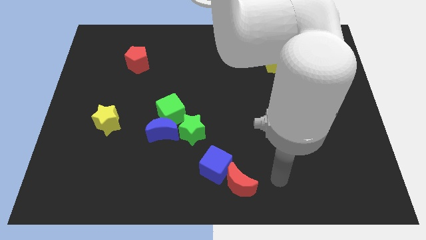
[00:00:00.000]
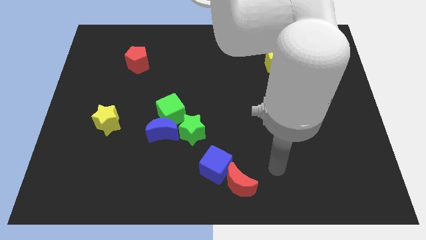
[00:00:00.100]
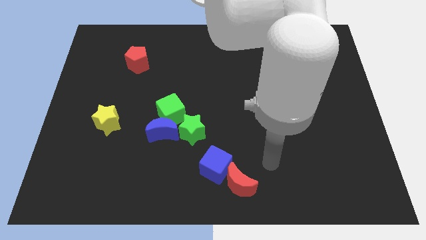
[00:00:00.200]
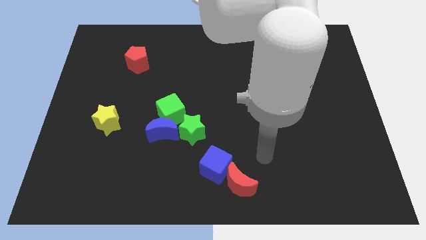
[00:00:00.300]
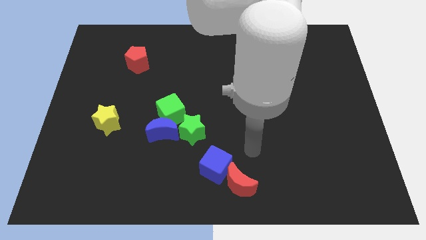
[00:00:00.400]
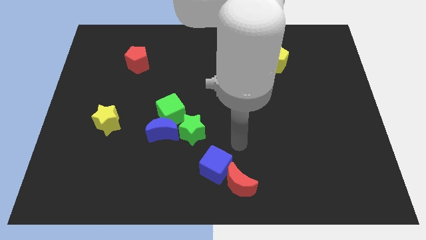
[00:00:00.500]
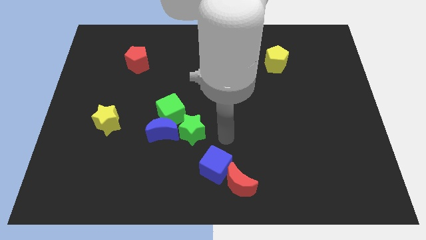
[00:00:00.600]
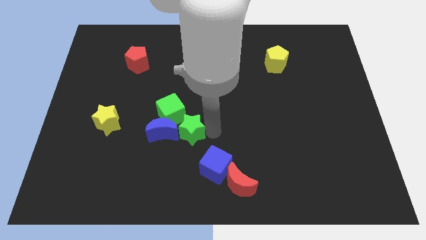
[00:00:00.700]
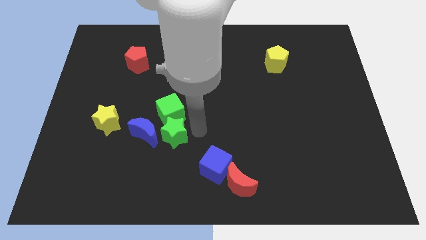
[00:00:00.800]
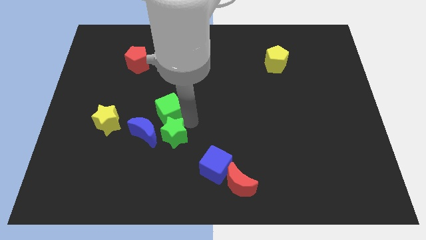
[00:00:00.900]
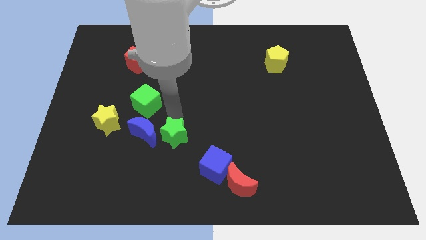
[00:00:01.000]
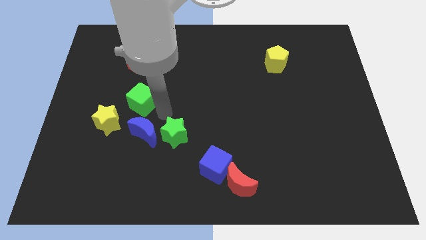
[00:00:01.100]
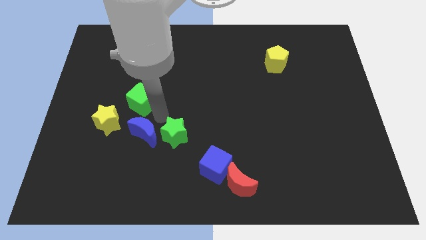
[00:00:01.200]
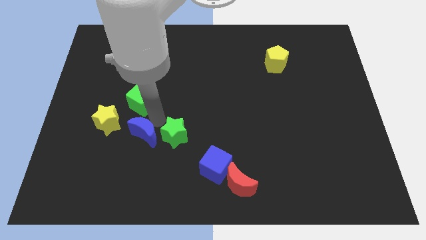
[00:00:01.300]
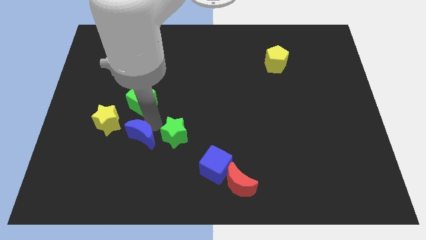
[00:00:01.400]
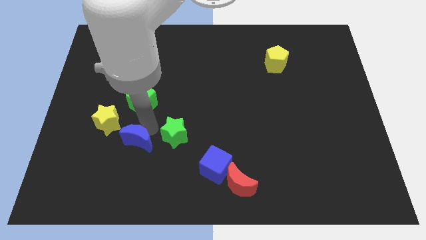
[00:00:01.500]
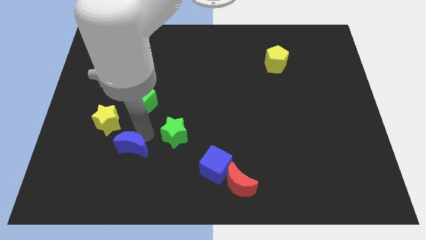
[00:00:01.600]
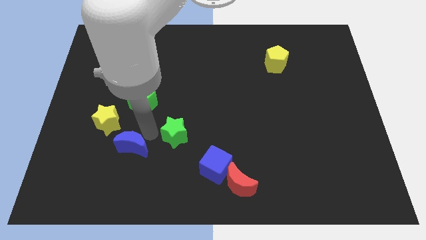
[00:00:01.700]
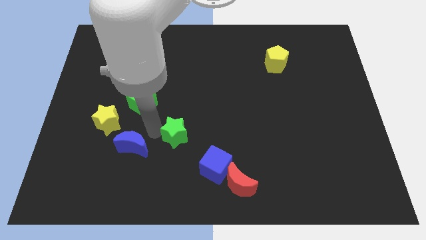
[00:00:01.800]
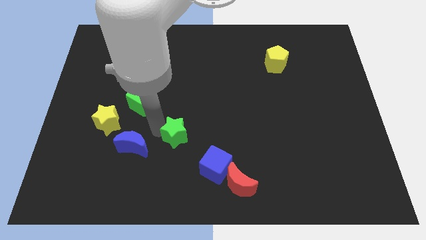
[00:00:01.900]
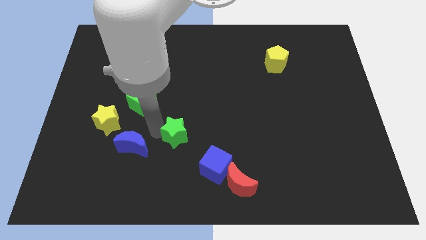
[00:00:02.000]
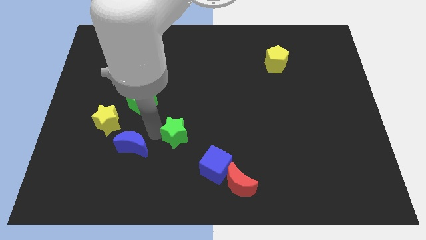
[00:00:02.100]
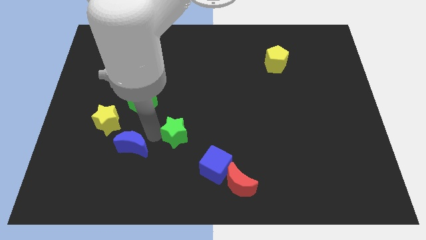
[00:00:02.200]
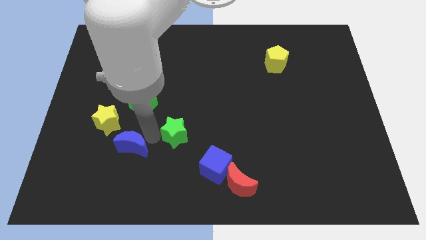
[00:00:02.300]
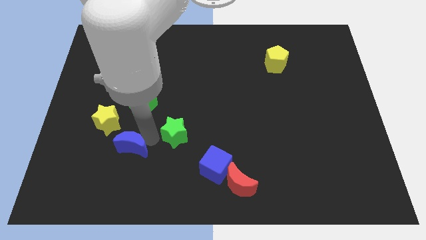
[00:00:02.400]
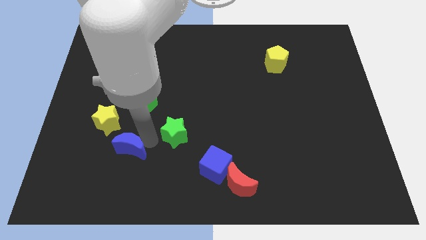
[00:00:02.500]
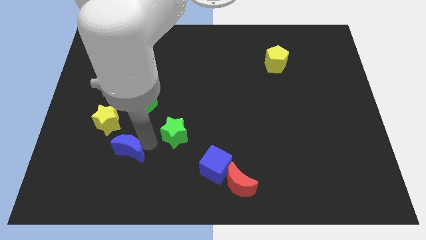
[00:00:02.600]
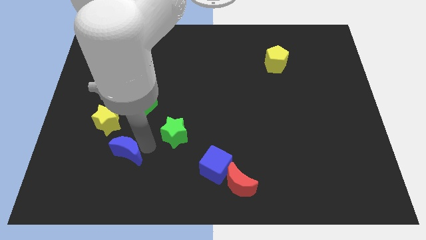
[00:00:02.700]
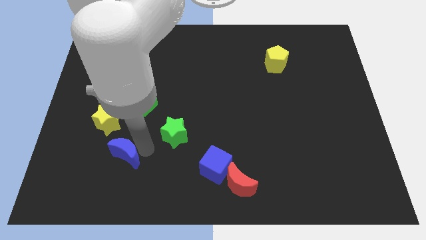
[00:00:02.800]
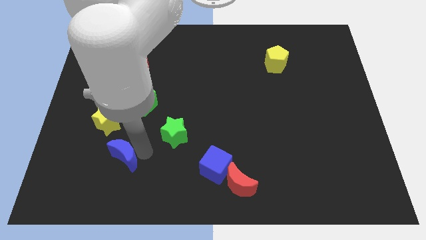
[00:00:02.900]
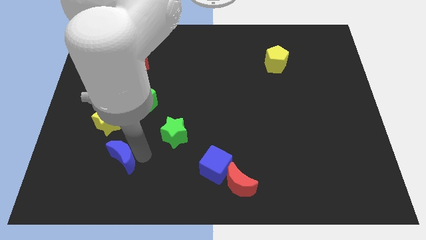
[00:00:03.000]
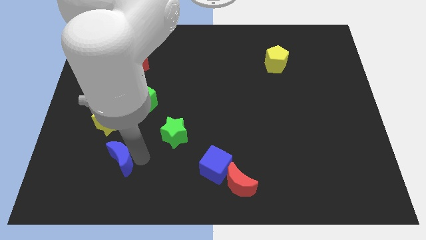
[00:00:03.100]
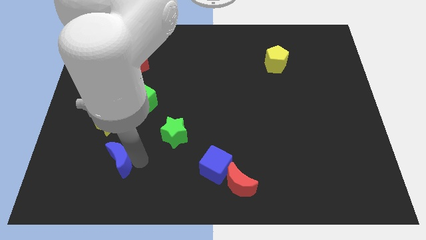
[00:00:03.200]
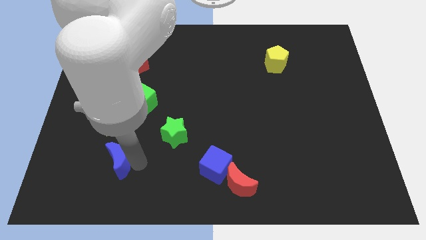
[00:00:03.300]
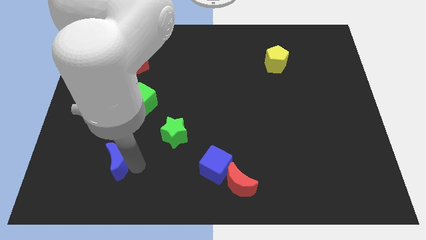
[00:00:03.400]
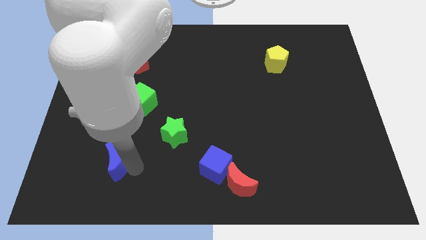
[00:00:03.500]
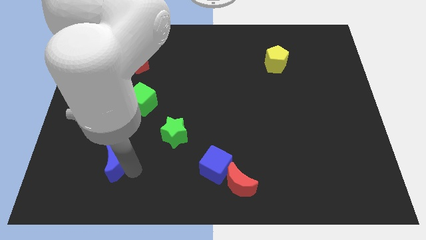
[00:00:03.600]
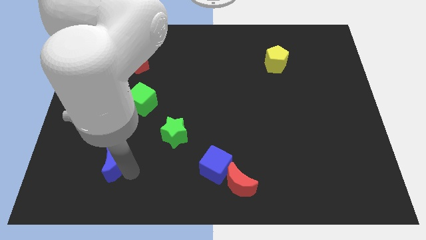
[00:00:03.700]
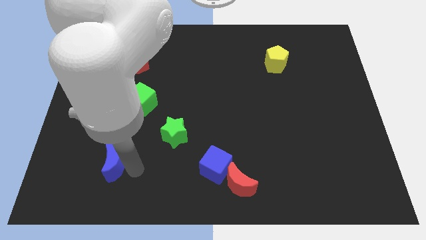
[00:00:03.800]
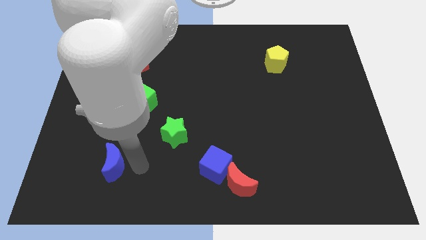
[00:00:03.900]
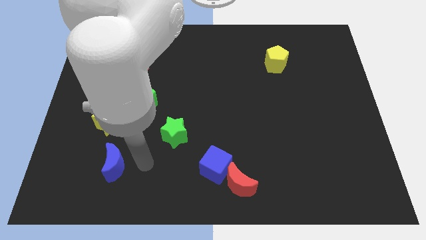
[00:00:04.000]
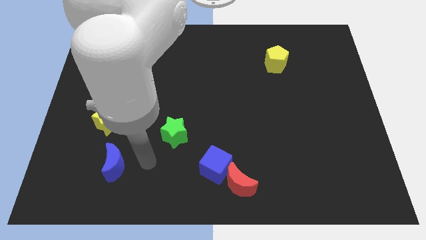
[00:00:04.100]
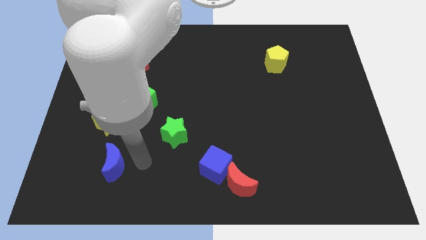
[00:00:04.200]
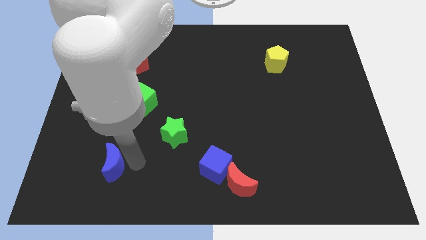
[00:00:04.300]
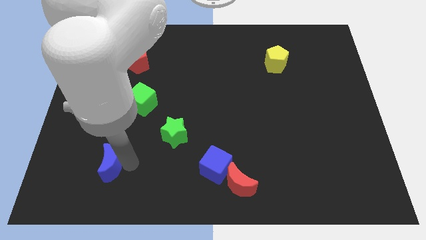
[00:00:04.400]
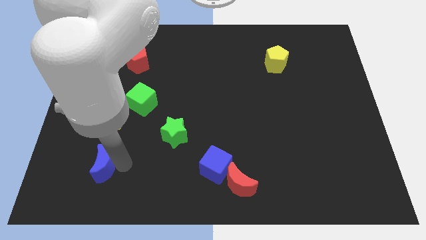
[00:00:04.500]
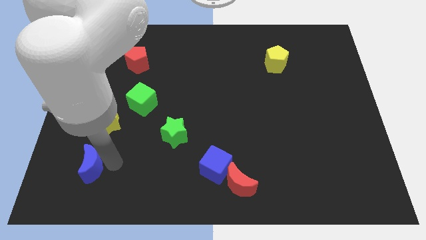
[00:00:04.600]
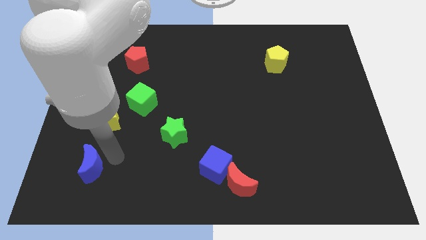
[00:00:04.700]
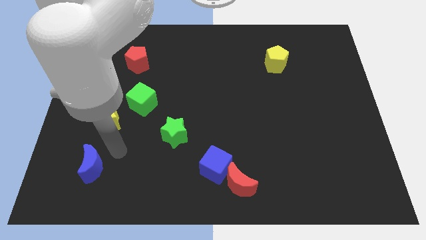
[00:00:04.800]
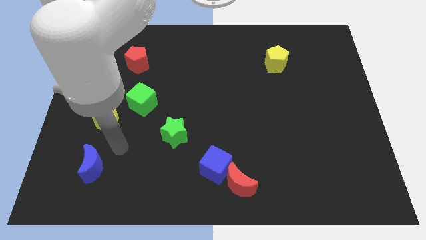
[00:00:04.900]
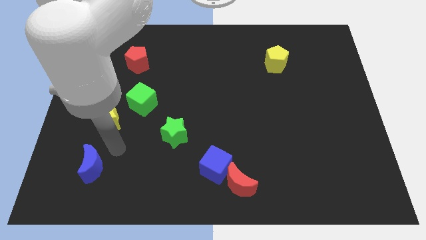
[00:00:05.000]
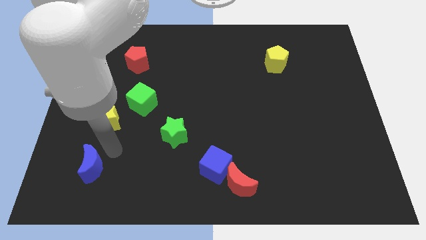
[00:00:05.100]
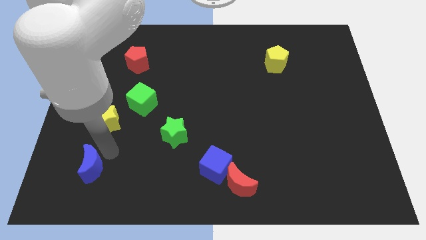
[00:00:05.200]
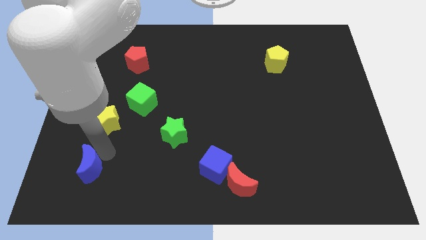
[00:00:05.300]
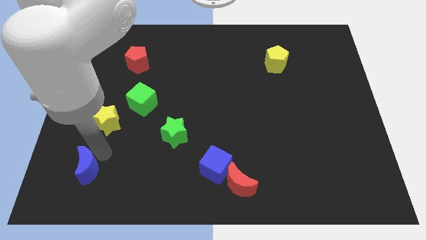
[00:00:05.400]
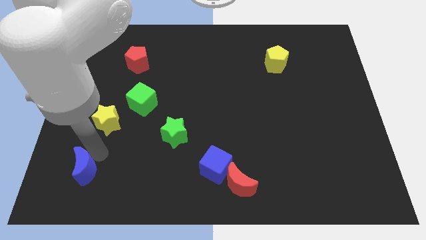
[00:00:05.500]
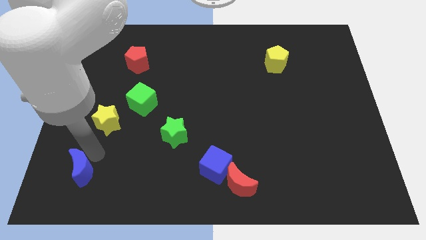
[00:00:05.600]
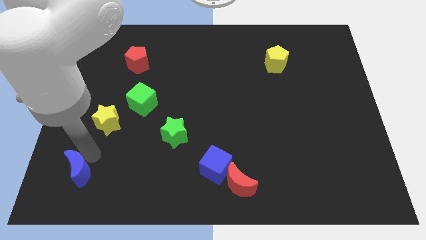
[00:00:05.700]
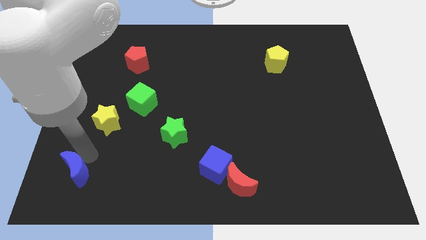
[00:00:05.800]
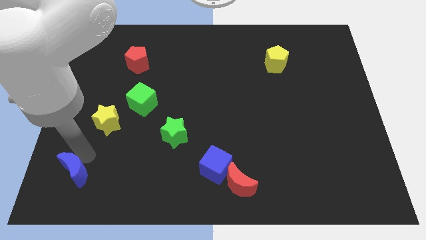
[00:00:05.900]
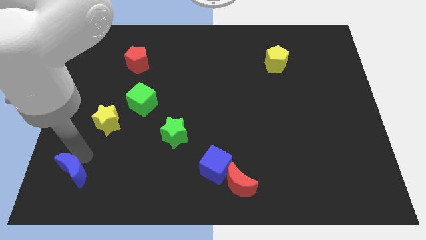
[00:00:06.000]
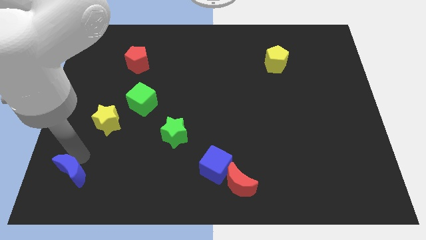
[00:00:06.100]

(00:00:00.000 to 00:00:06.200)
move the blue moon to the bottom left
